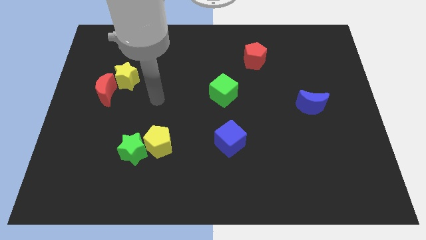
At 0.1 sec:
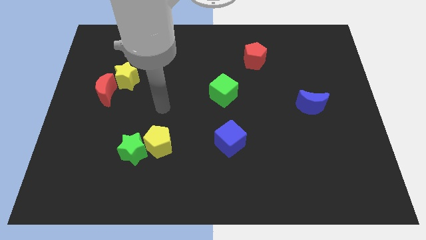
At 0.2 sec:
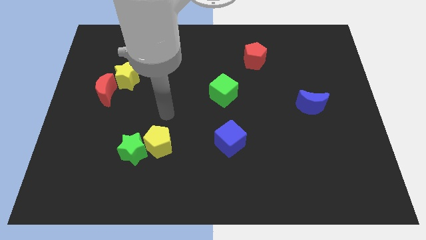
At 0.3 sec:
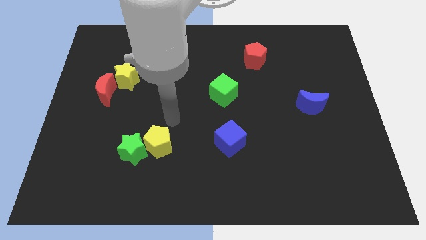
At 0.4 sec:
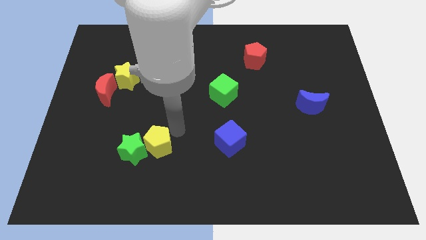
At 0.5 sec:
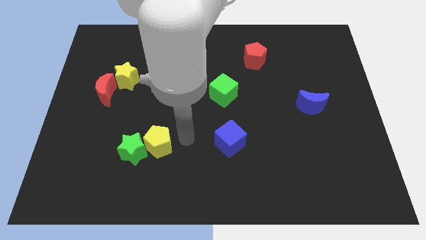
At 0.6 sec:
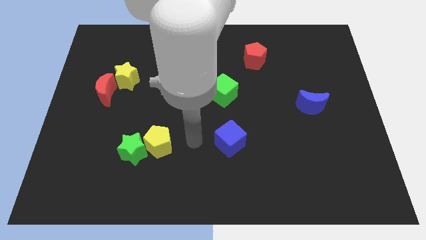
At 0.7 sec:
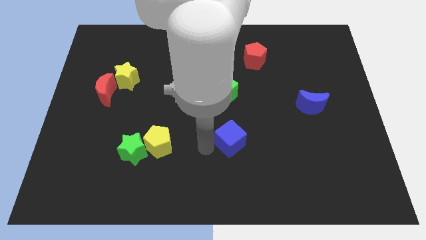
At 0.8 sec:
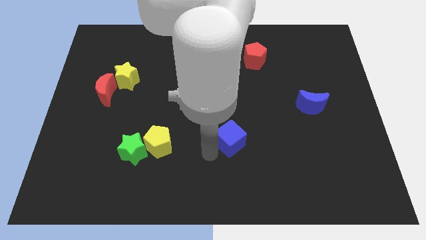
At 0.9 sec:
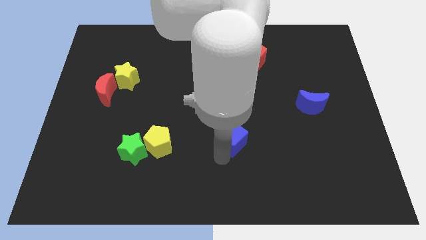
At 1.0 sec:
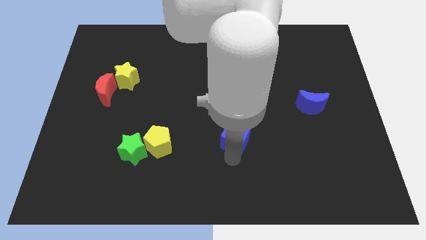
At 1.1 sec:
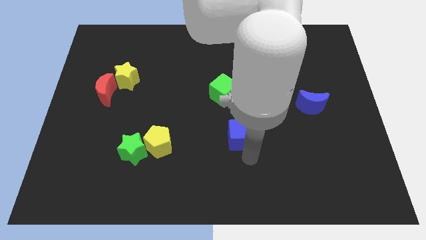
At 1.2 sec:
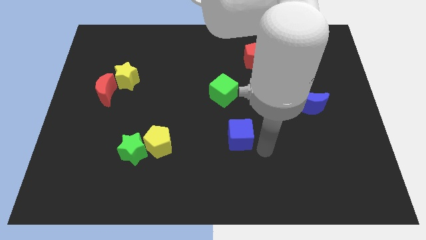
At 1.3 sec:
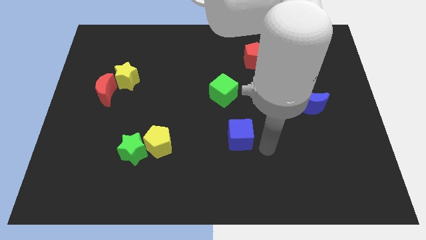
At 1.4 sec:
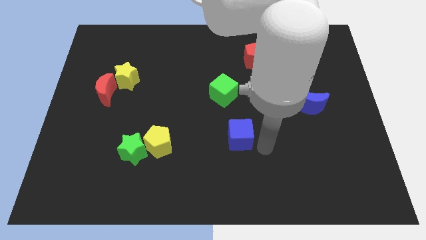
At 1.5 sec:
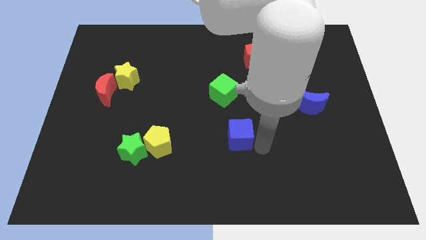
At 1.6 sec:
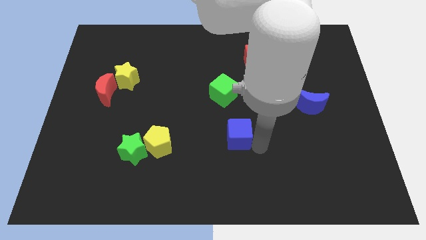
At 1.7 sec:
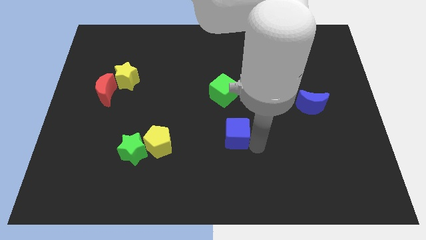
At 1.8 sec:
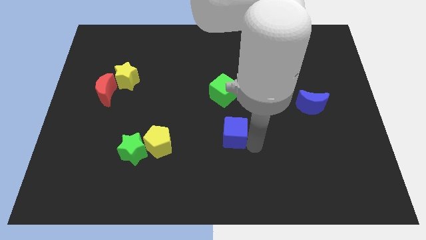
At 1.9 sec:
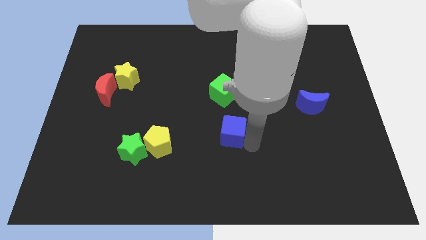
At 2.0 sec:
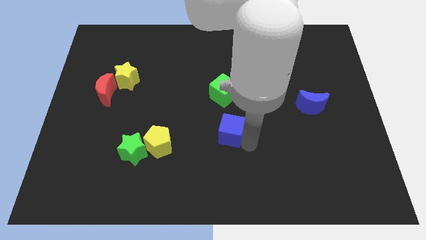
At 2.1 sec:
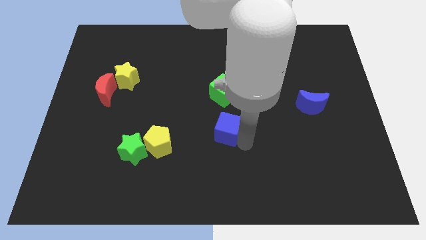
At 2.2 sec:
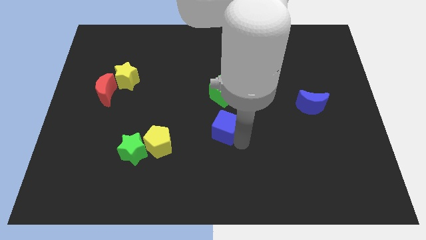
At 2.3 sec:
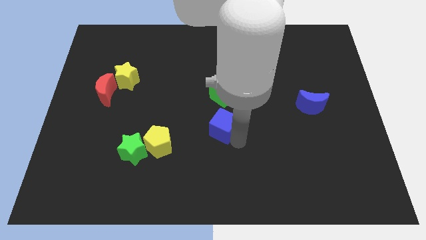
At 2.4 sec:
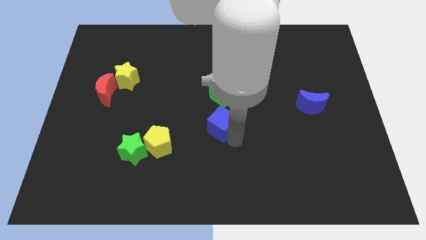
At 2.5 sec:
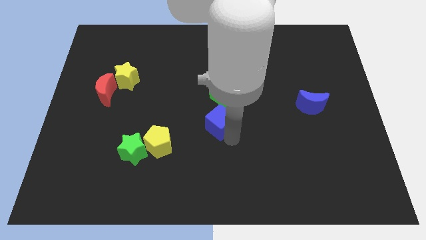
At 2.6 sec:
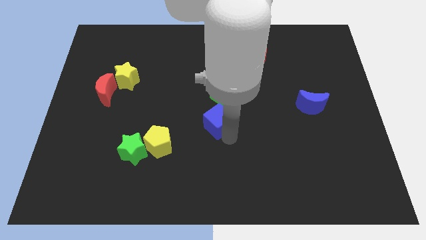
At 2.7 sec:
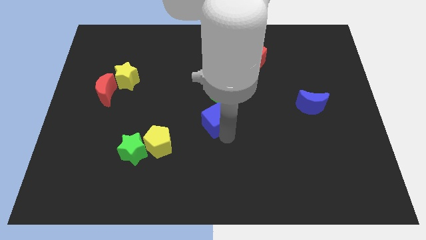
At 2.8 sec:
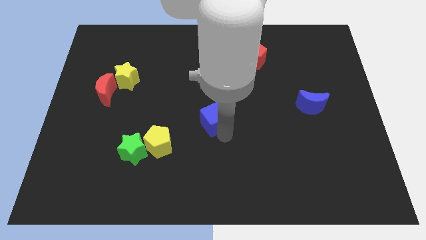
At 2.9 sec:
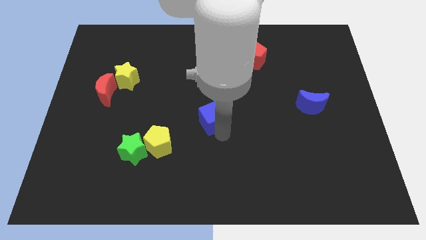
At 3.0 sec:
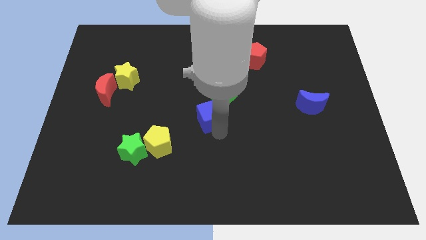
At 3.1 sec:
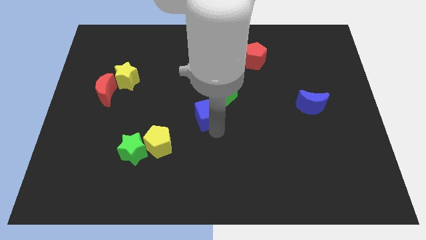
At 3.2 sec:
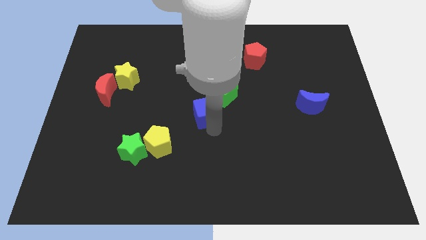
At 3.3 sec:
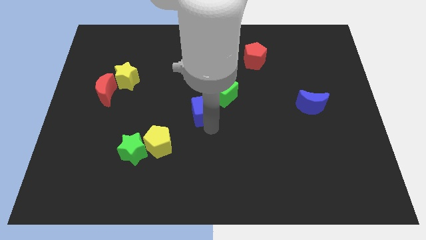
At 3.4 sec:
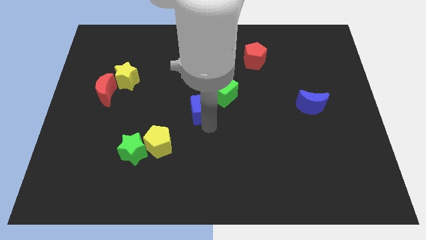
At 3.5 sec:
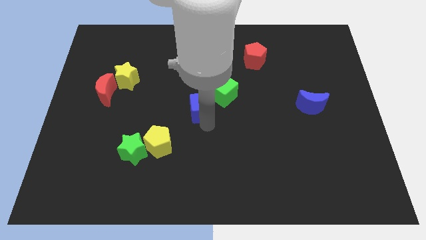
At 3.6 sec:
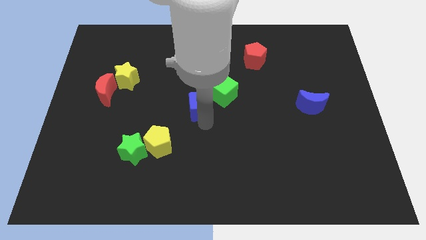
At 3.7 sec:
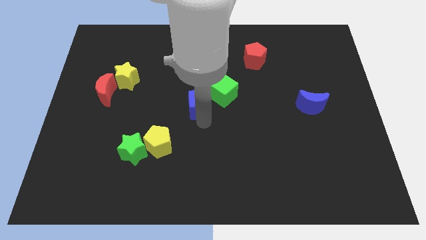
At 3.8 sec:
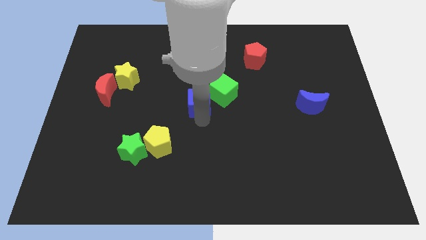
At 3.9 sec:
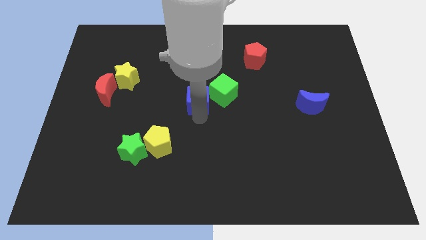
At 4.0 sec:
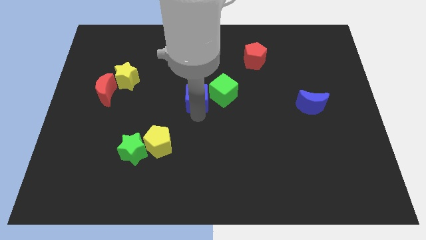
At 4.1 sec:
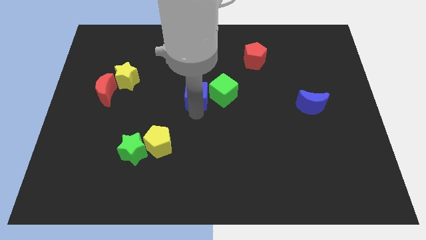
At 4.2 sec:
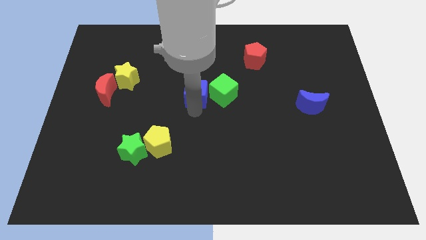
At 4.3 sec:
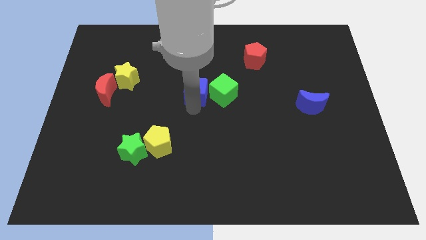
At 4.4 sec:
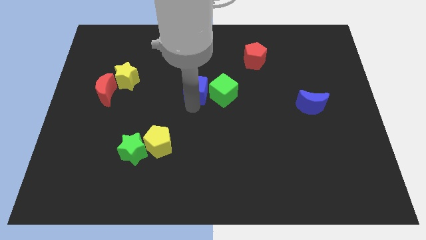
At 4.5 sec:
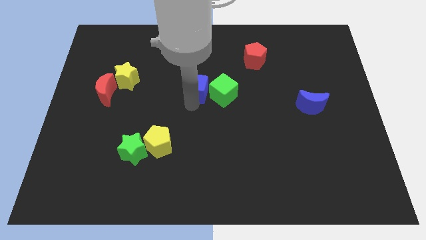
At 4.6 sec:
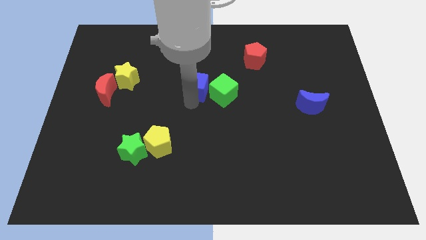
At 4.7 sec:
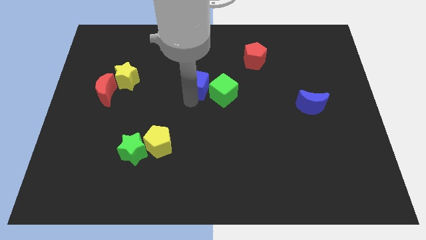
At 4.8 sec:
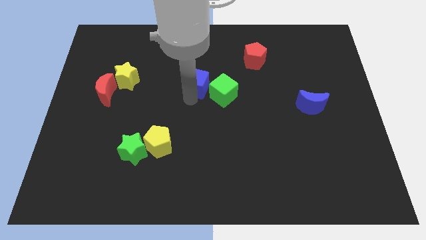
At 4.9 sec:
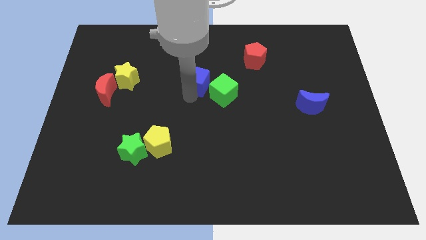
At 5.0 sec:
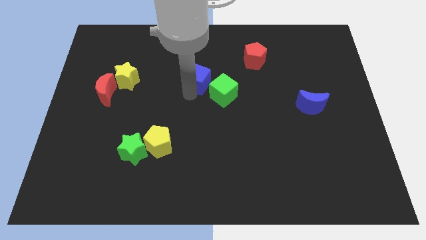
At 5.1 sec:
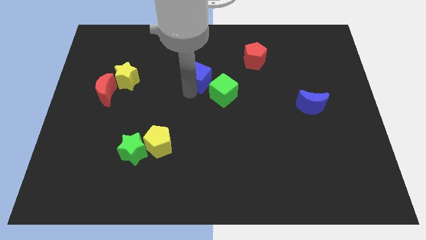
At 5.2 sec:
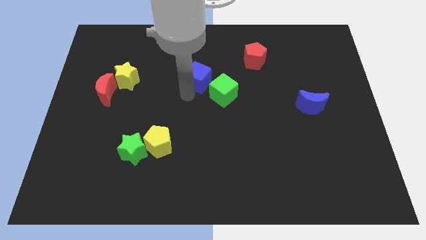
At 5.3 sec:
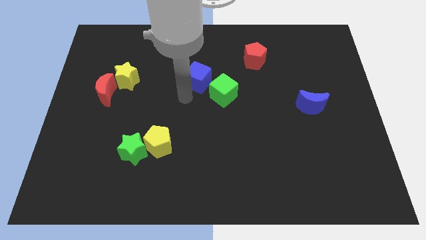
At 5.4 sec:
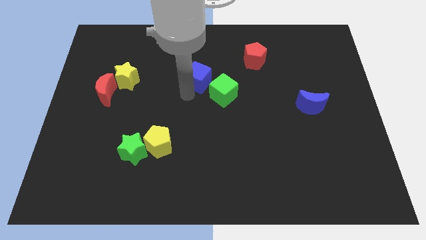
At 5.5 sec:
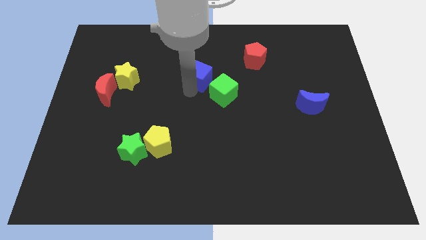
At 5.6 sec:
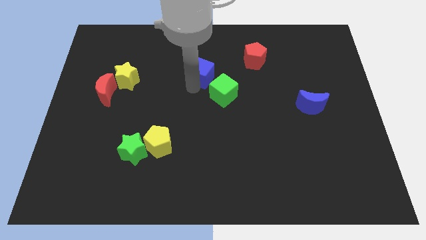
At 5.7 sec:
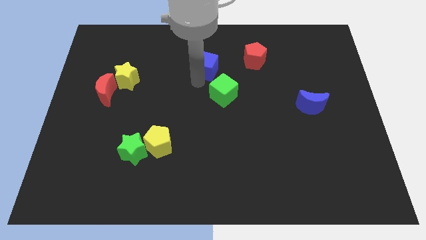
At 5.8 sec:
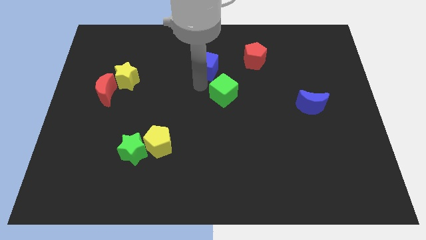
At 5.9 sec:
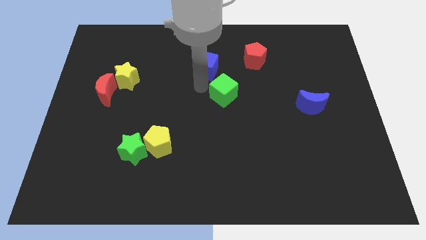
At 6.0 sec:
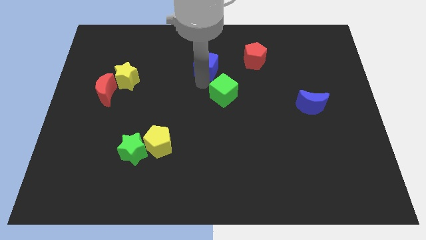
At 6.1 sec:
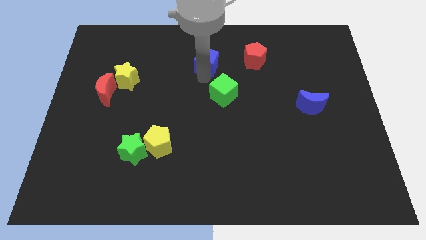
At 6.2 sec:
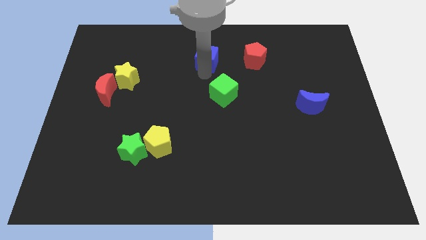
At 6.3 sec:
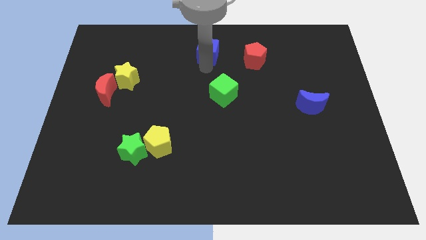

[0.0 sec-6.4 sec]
slide the blue cube to the towards your base
